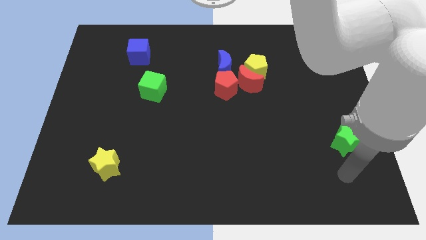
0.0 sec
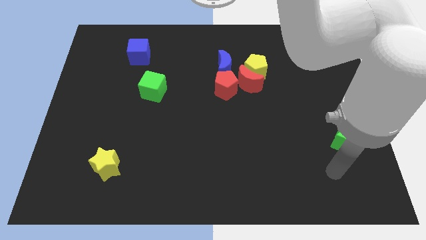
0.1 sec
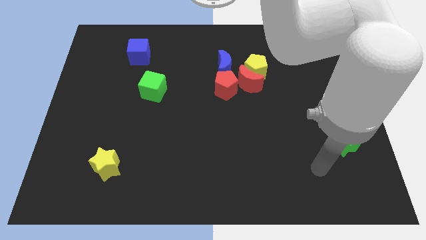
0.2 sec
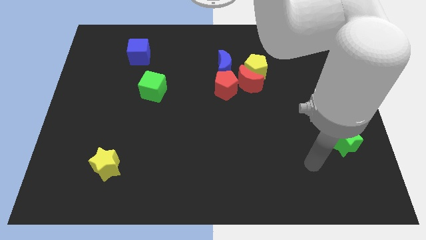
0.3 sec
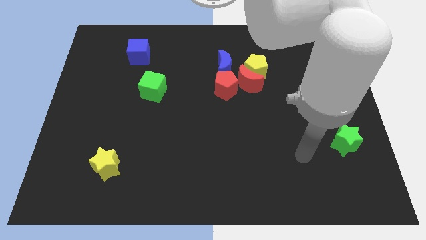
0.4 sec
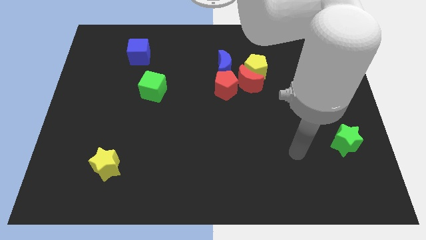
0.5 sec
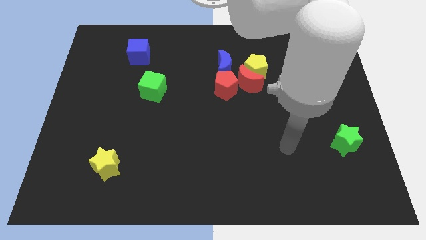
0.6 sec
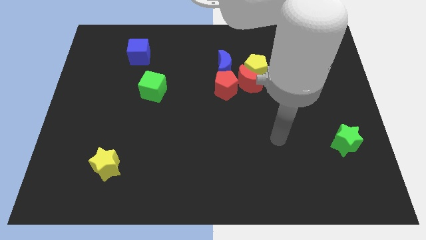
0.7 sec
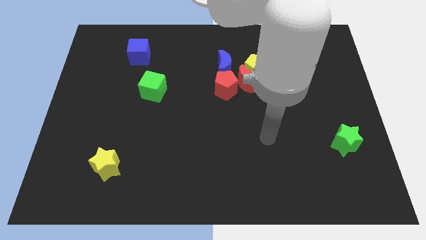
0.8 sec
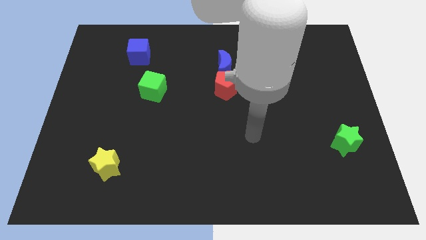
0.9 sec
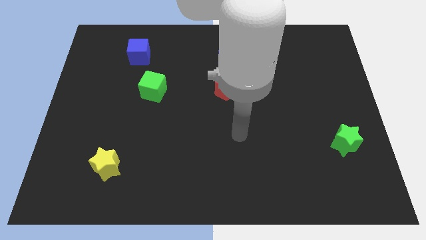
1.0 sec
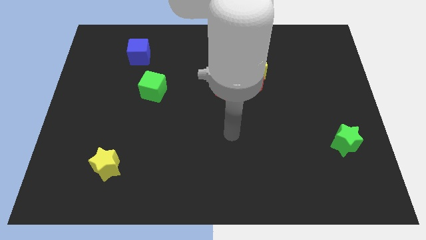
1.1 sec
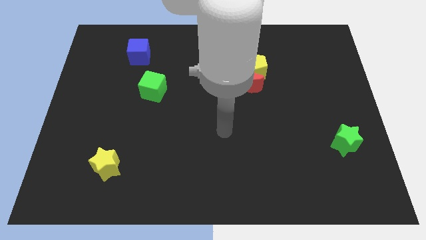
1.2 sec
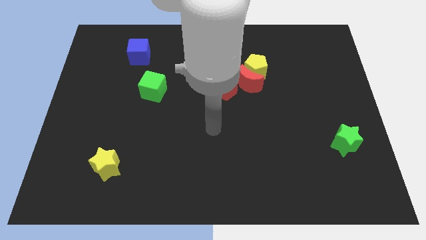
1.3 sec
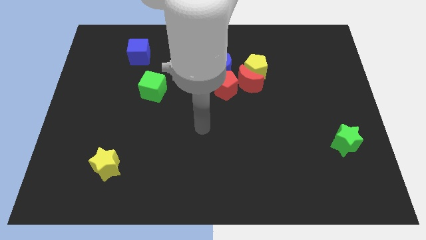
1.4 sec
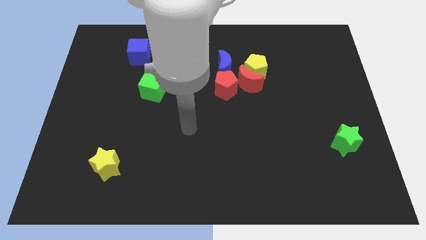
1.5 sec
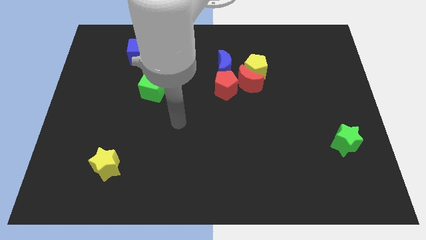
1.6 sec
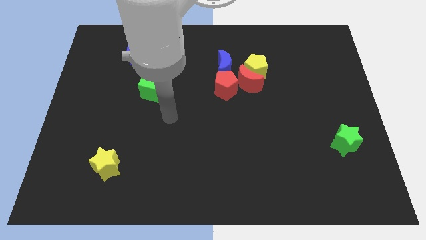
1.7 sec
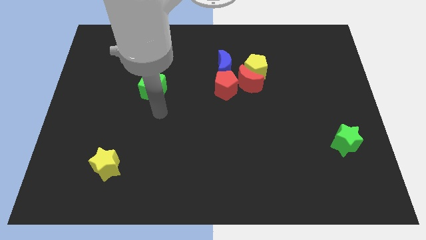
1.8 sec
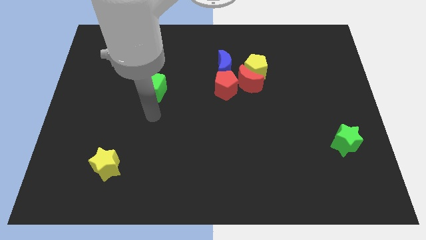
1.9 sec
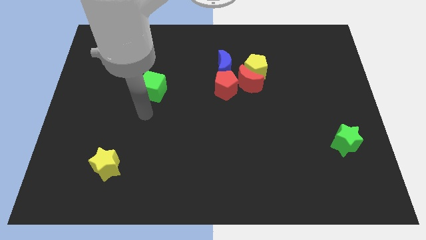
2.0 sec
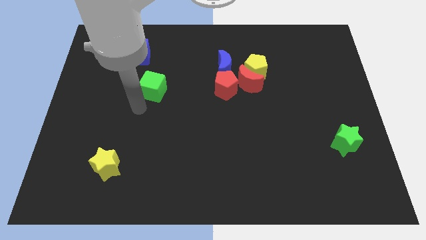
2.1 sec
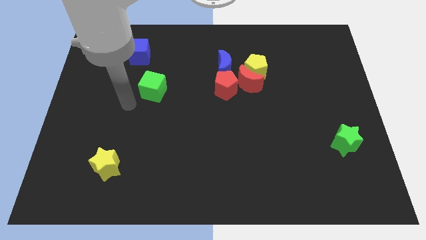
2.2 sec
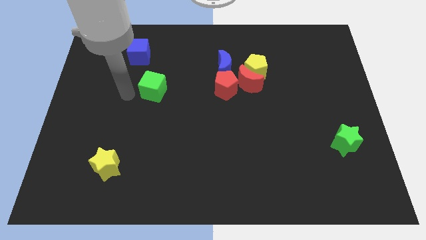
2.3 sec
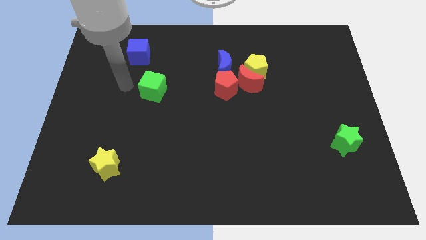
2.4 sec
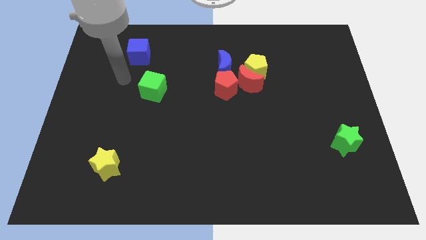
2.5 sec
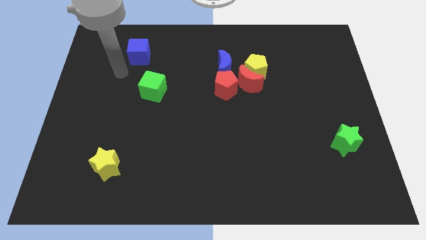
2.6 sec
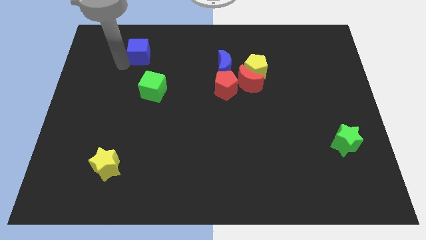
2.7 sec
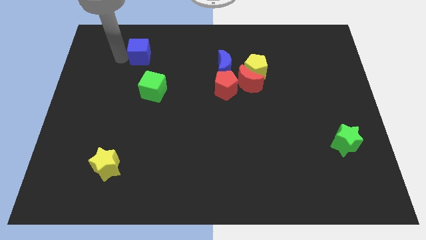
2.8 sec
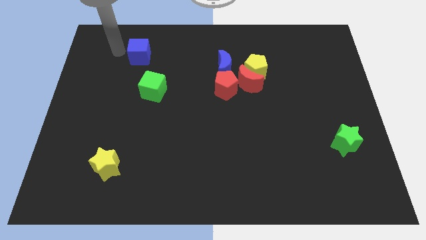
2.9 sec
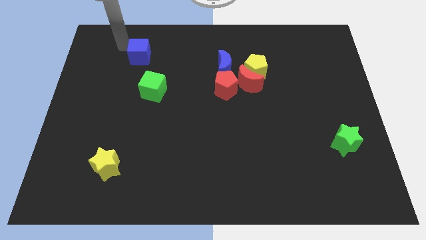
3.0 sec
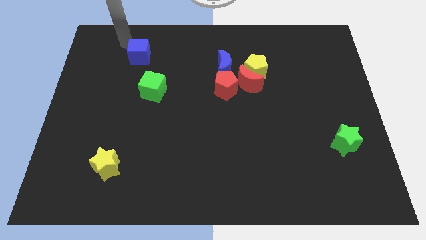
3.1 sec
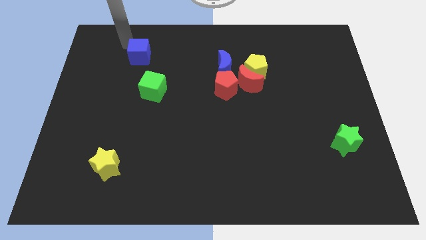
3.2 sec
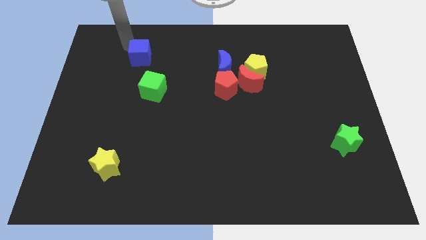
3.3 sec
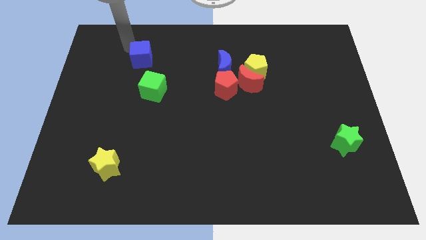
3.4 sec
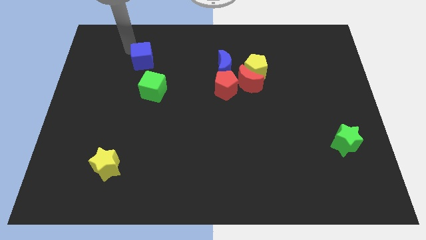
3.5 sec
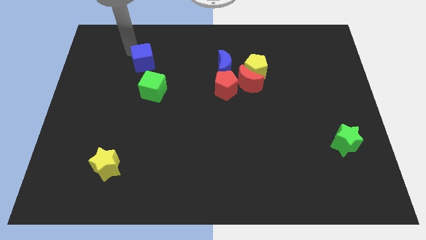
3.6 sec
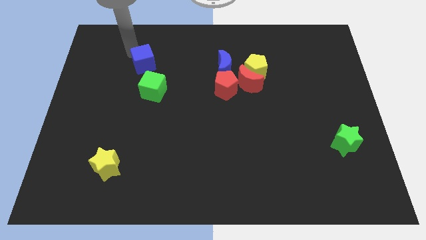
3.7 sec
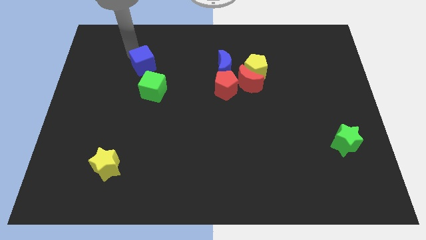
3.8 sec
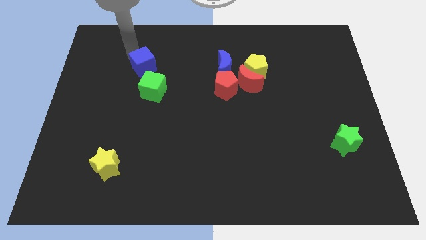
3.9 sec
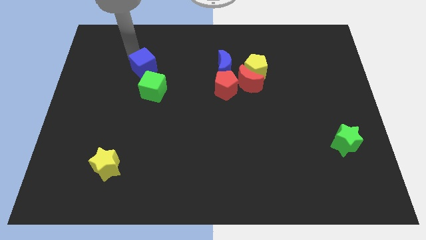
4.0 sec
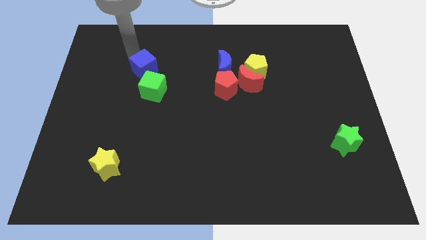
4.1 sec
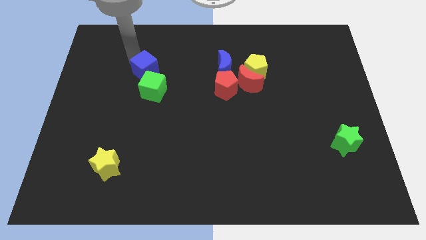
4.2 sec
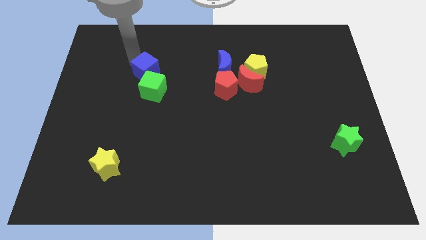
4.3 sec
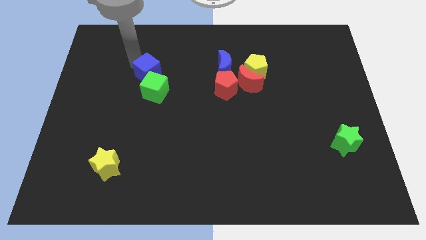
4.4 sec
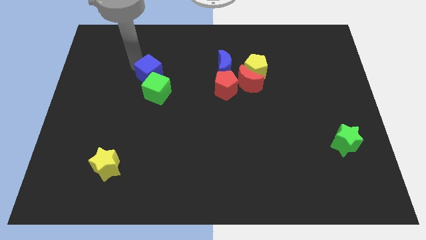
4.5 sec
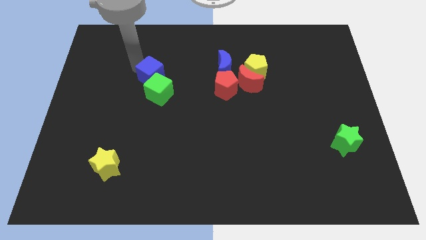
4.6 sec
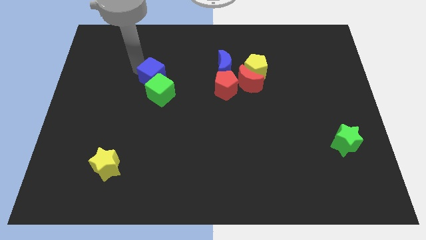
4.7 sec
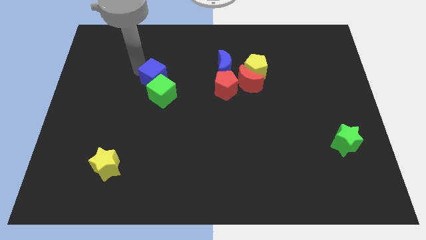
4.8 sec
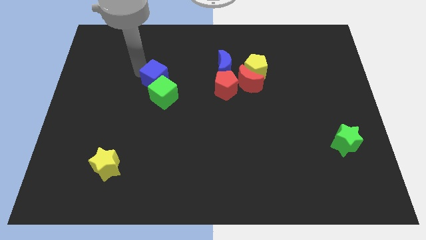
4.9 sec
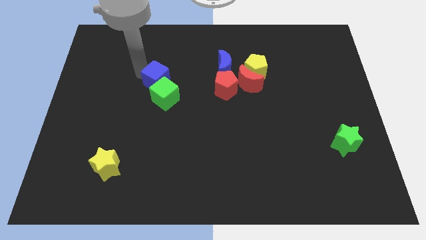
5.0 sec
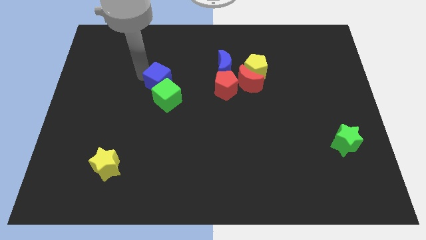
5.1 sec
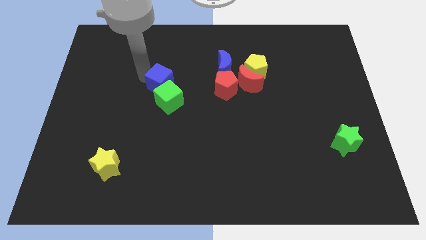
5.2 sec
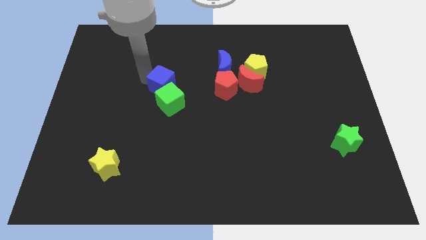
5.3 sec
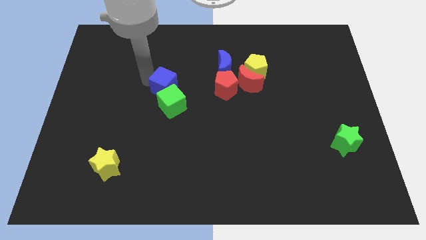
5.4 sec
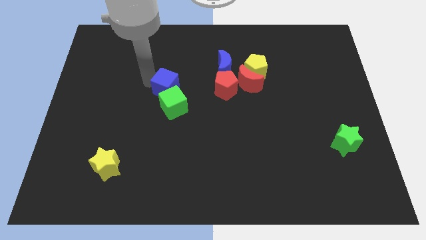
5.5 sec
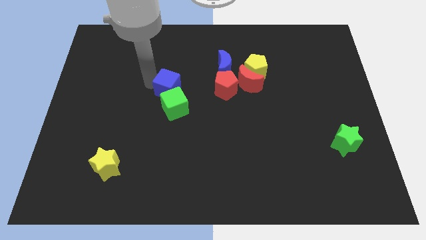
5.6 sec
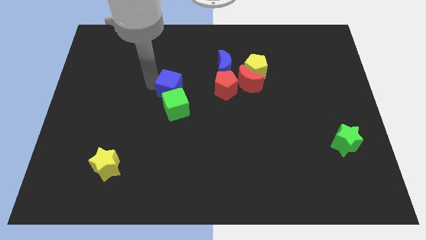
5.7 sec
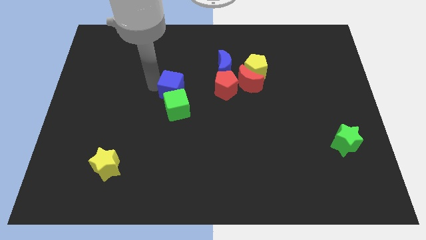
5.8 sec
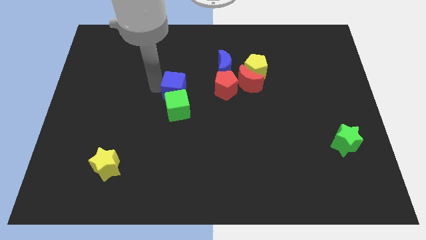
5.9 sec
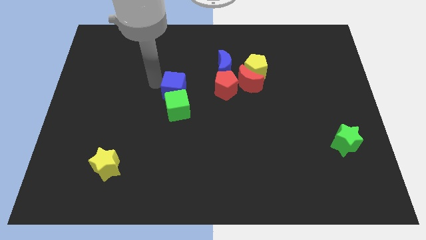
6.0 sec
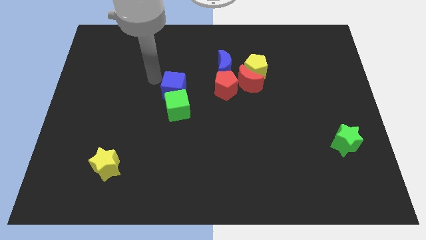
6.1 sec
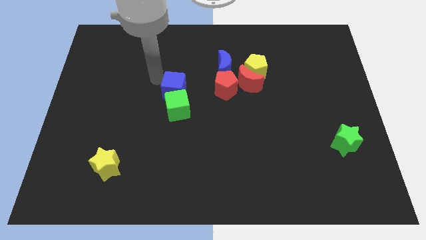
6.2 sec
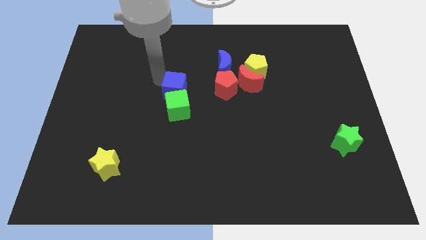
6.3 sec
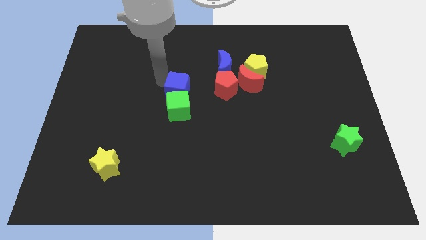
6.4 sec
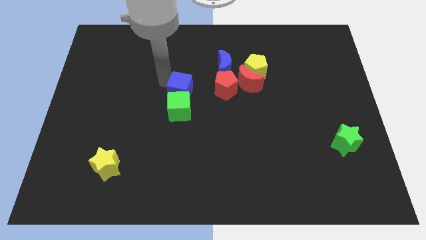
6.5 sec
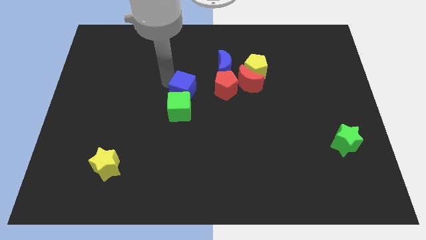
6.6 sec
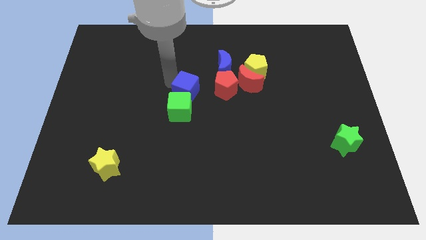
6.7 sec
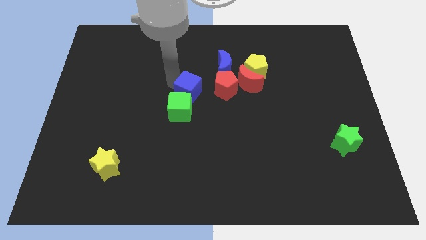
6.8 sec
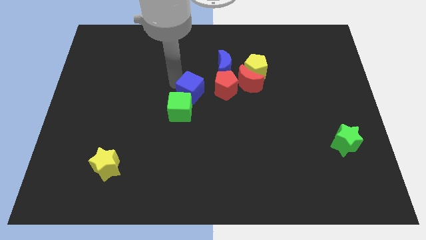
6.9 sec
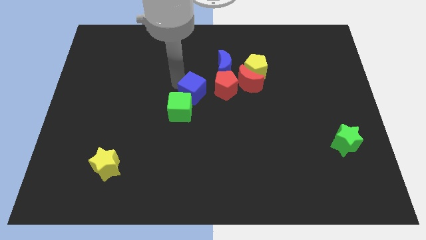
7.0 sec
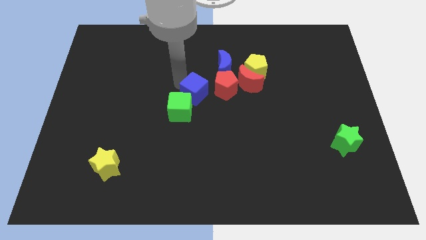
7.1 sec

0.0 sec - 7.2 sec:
move the blue cube downwards and right diagonally

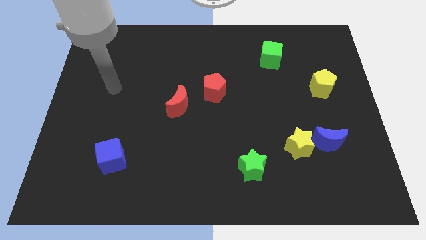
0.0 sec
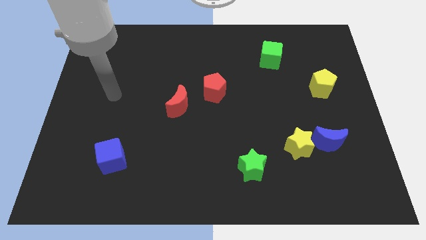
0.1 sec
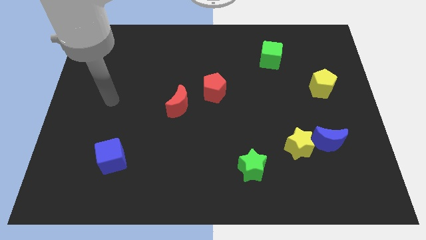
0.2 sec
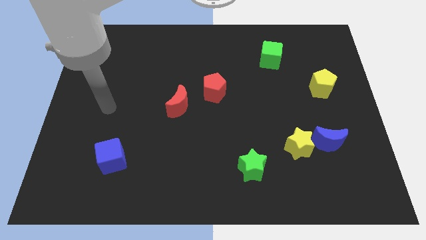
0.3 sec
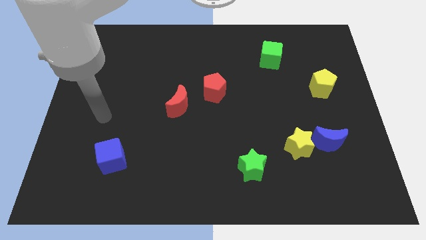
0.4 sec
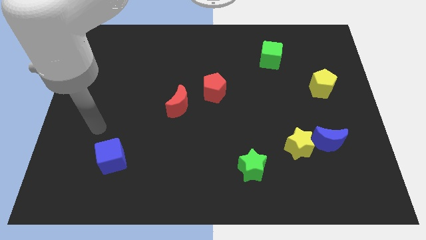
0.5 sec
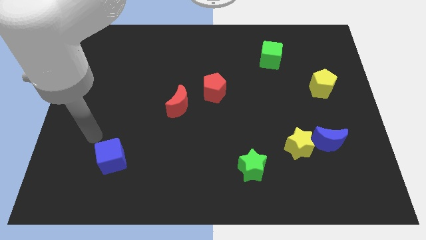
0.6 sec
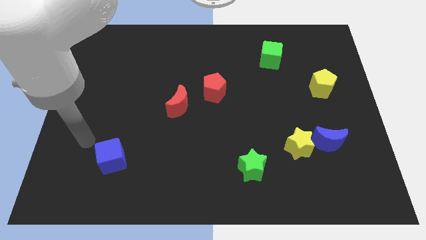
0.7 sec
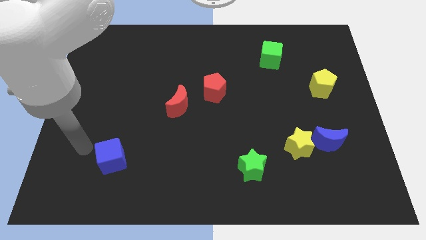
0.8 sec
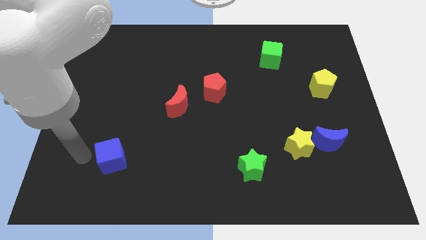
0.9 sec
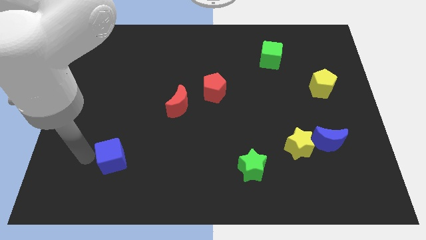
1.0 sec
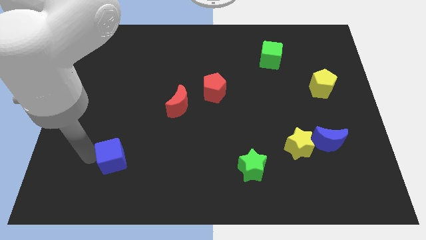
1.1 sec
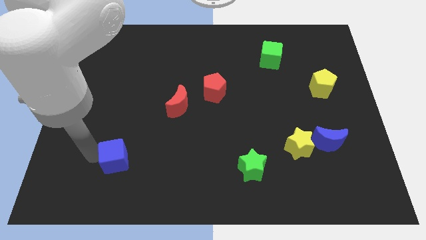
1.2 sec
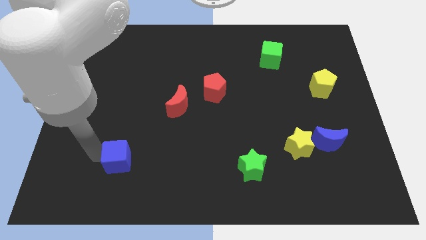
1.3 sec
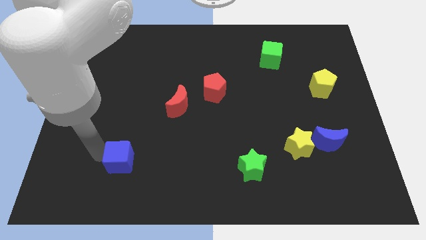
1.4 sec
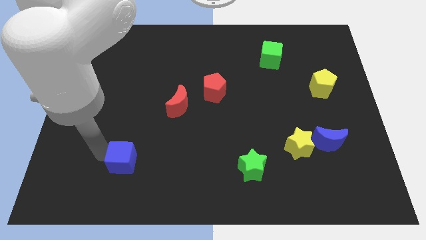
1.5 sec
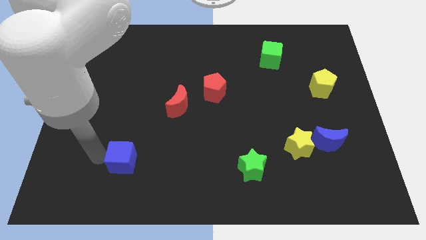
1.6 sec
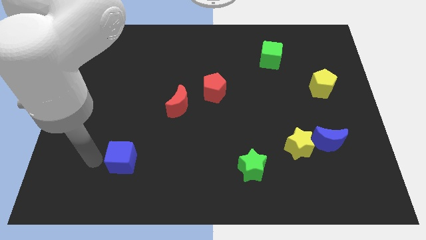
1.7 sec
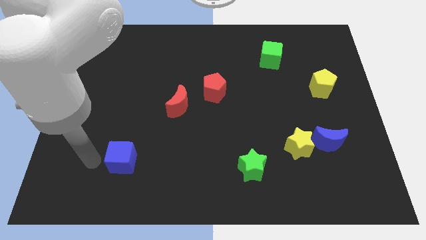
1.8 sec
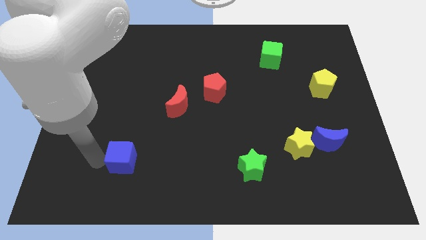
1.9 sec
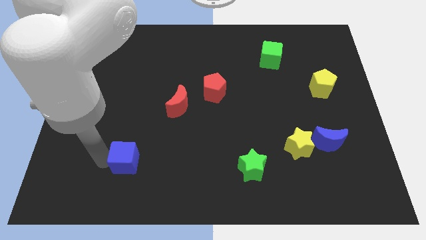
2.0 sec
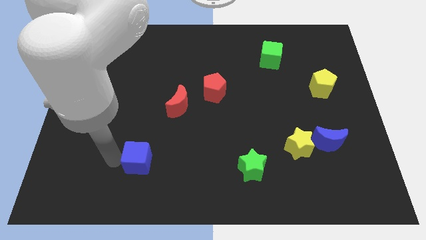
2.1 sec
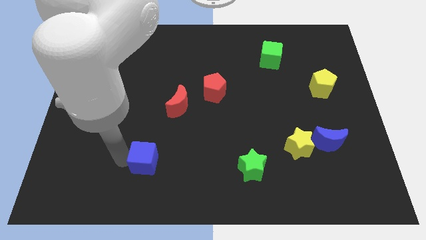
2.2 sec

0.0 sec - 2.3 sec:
move the blue cube right a little
